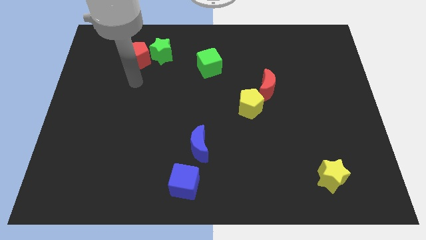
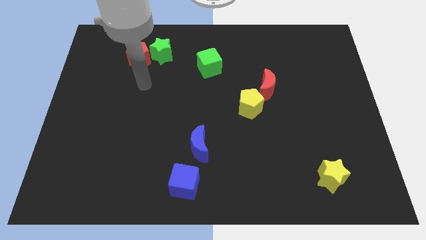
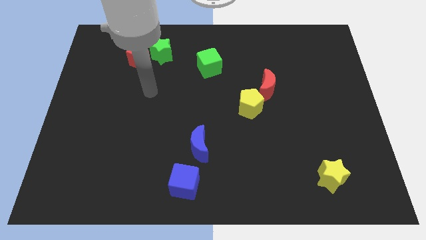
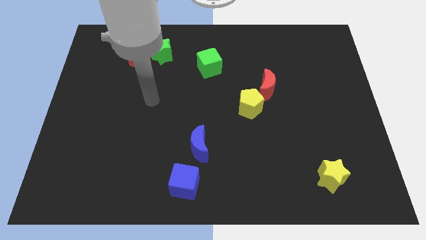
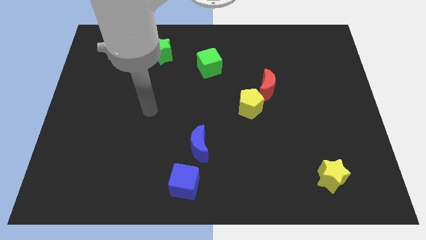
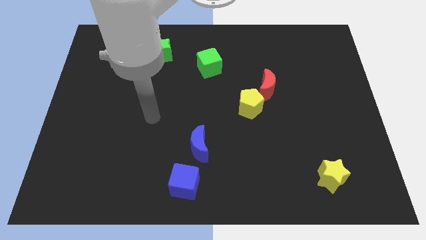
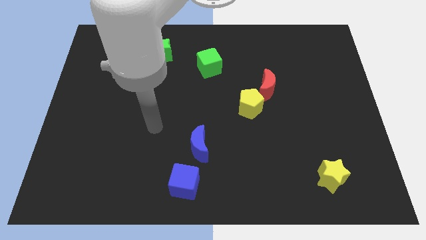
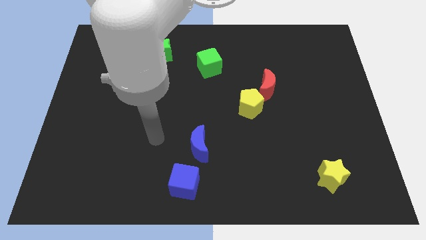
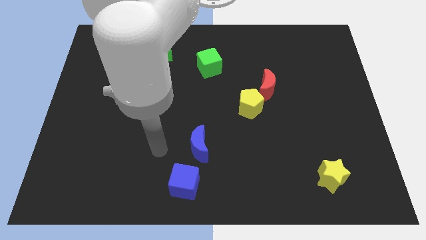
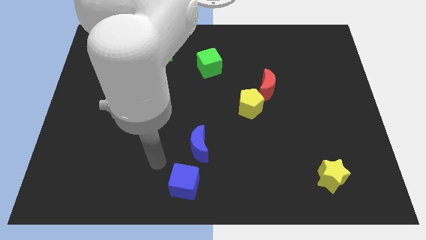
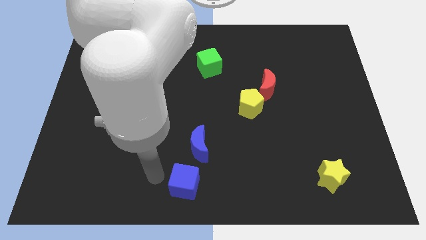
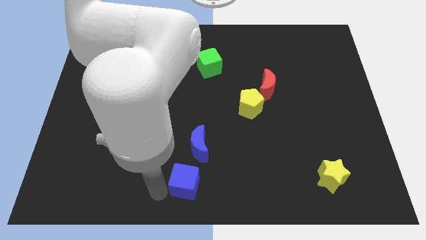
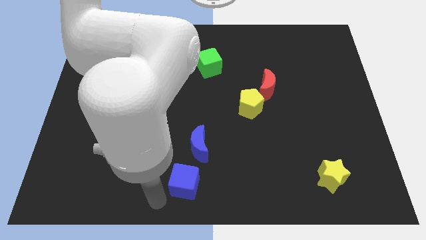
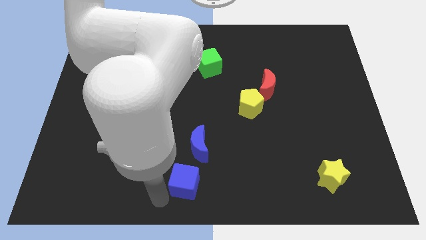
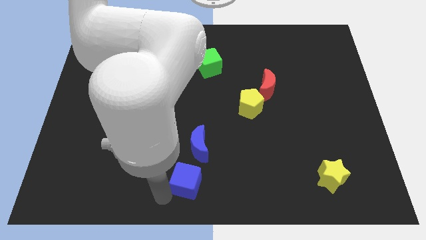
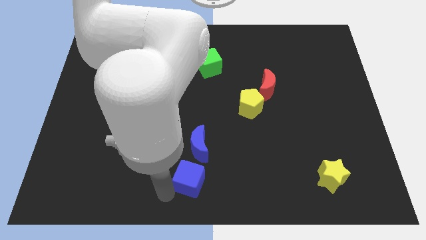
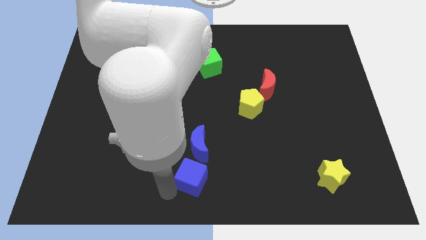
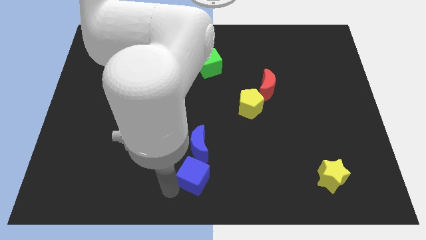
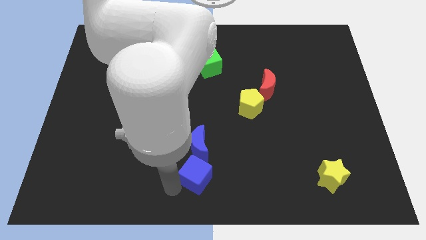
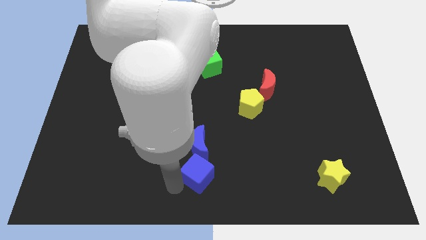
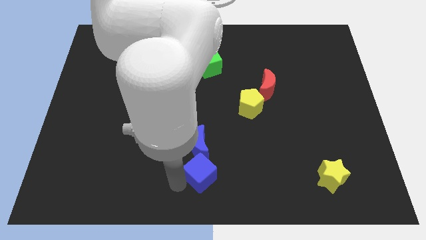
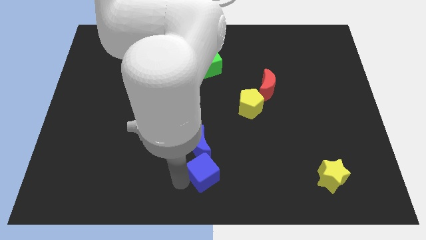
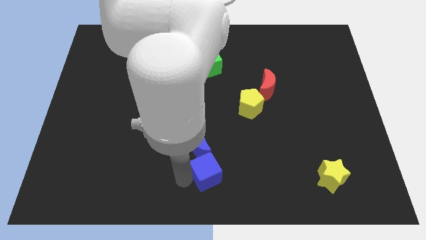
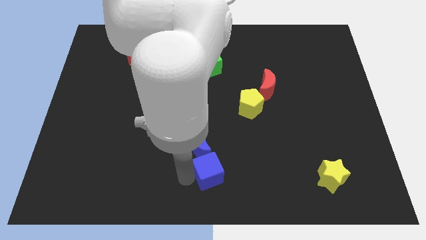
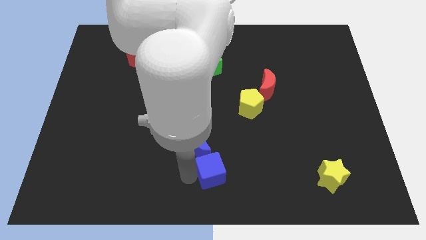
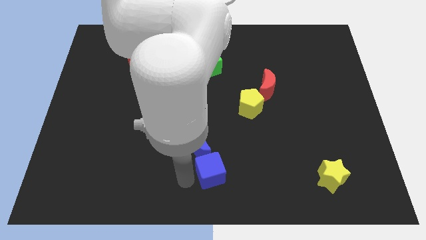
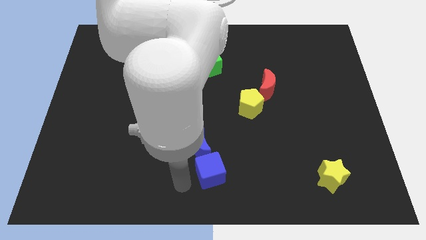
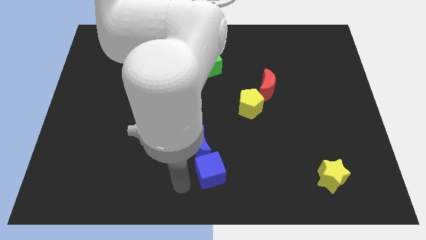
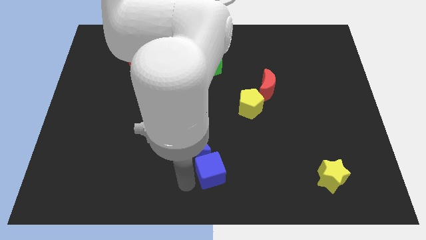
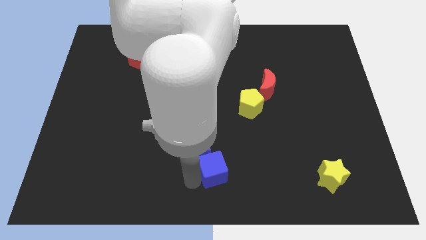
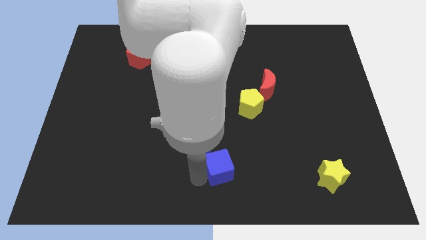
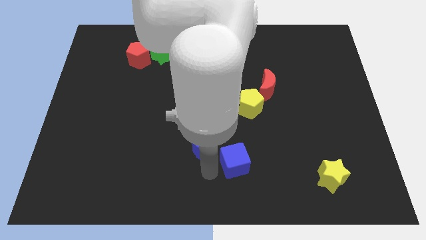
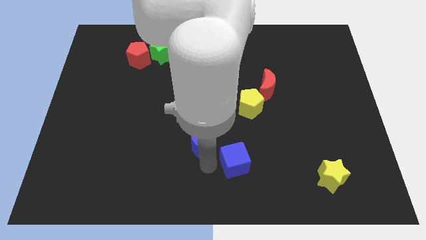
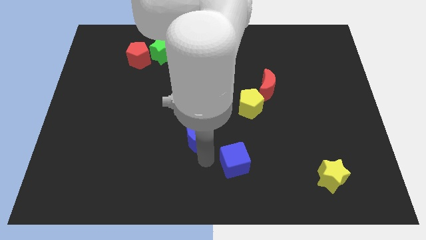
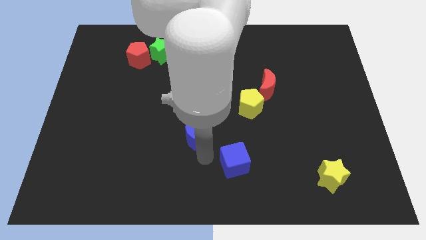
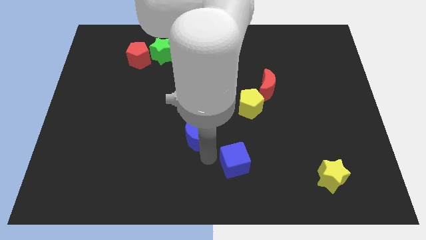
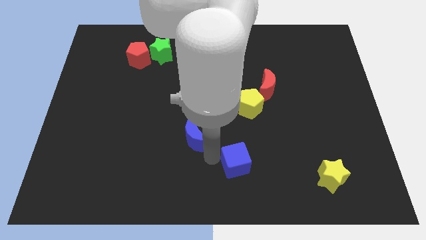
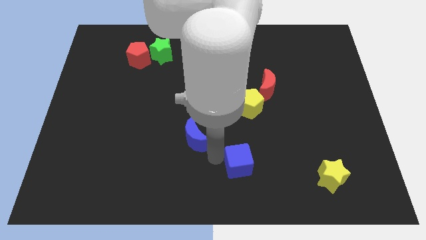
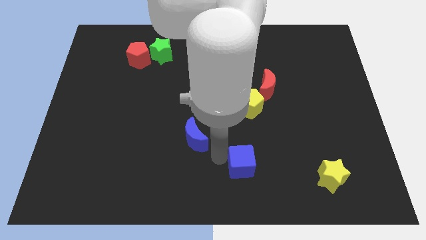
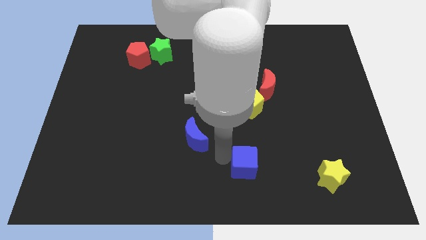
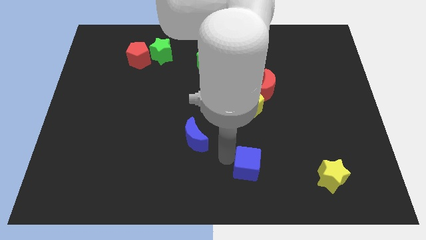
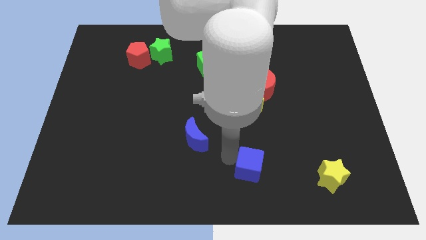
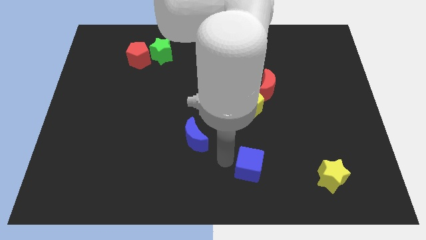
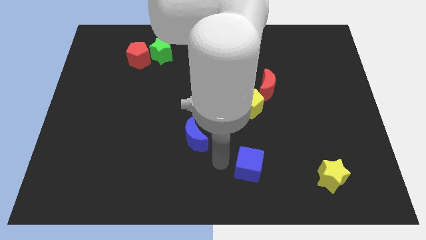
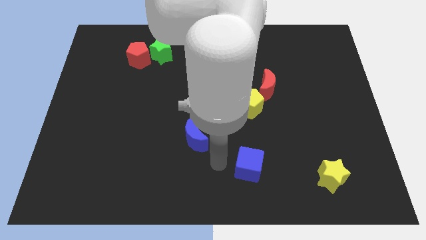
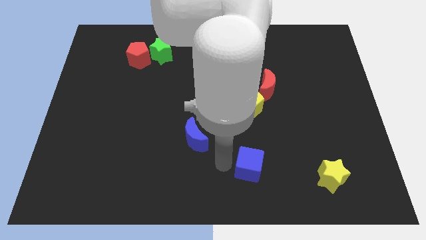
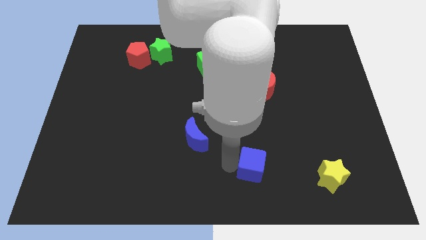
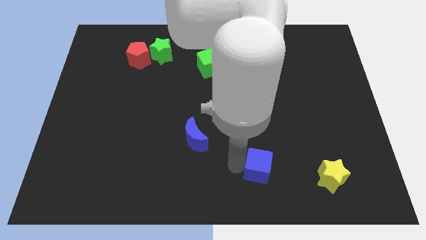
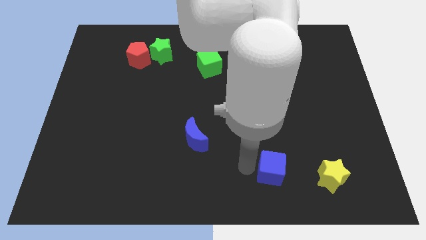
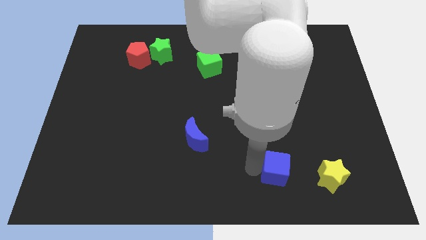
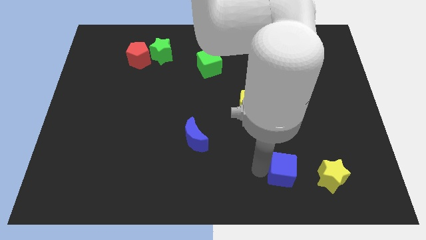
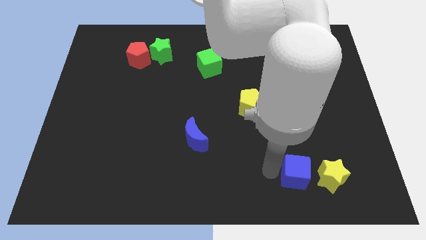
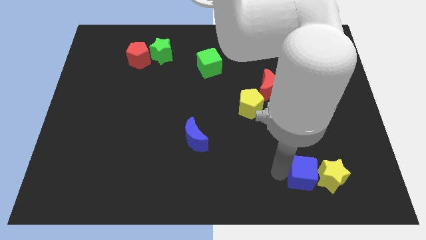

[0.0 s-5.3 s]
put the blue cube to the yellow star

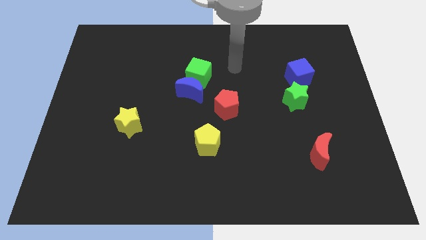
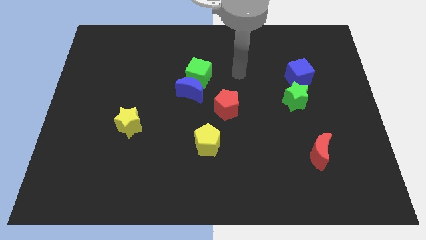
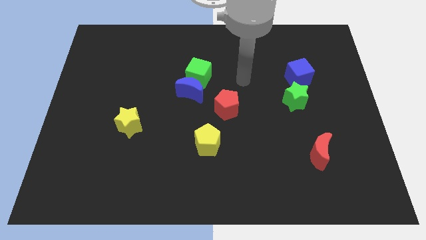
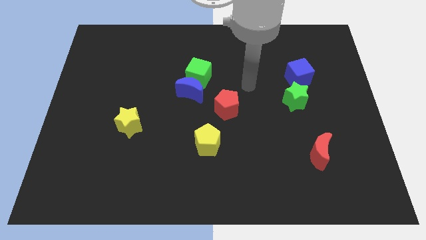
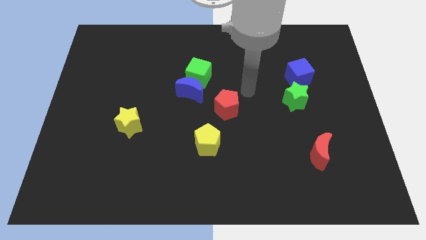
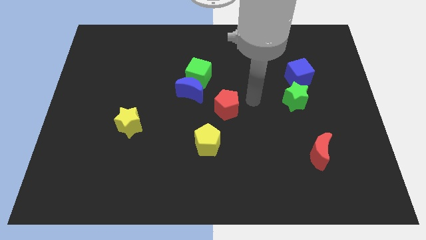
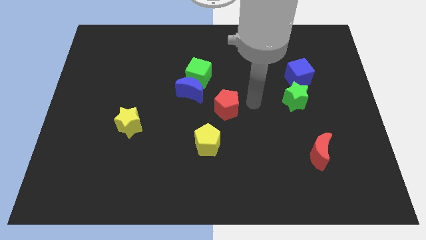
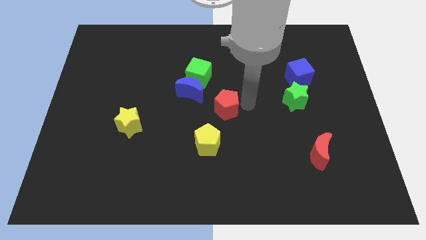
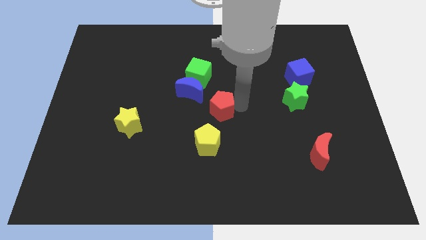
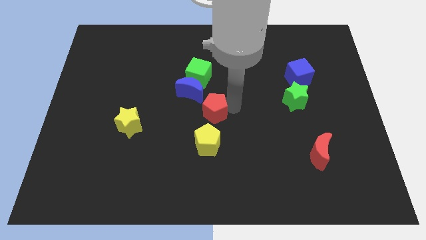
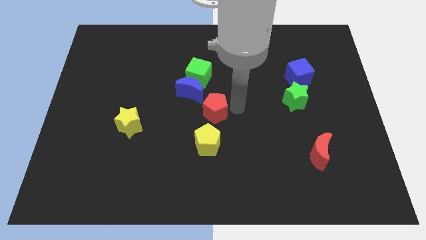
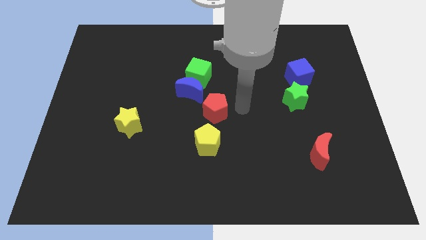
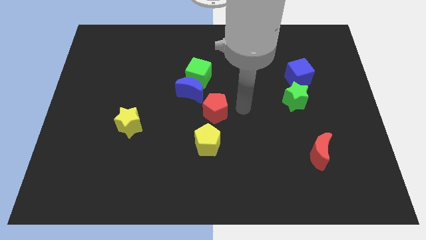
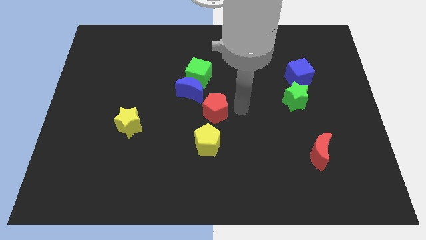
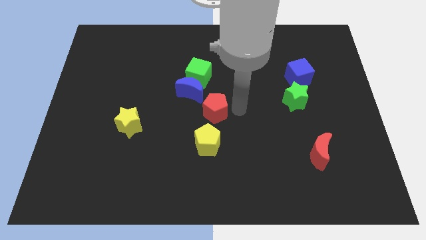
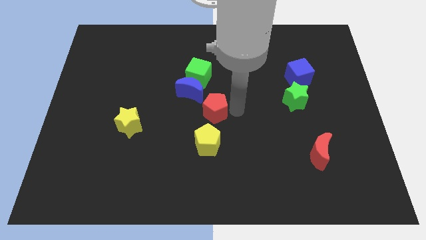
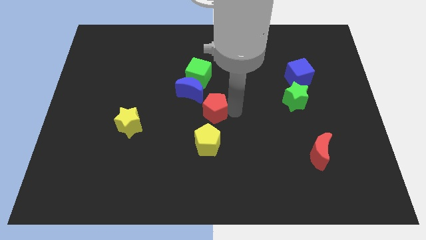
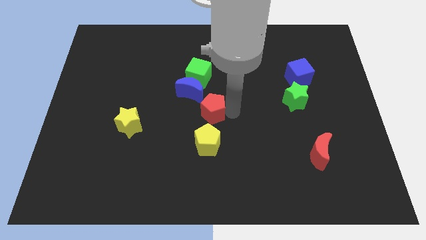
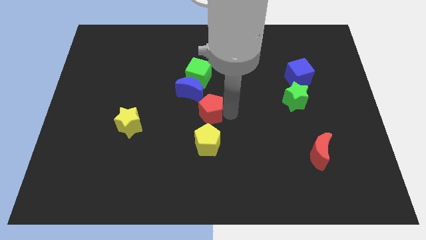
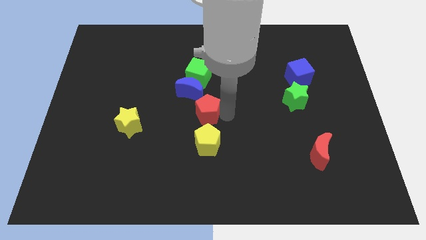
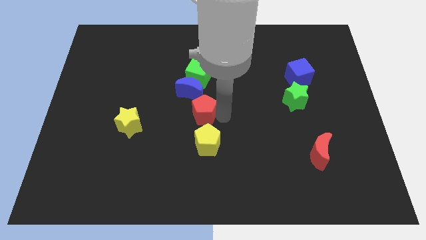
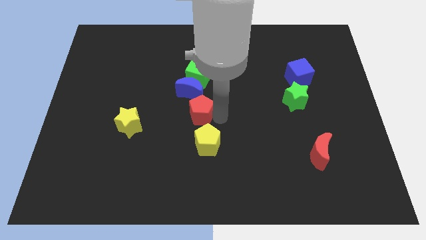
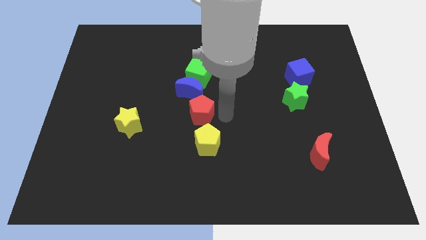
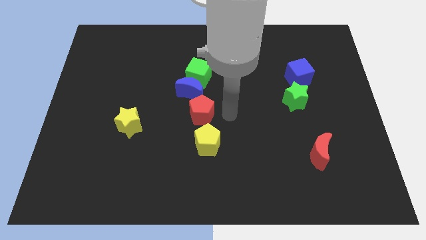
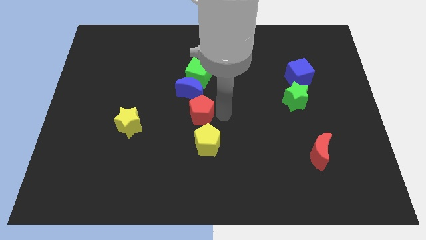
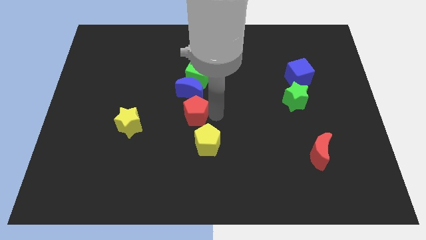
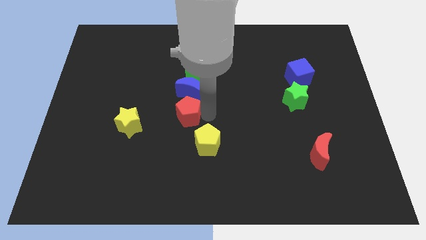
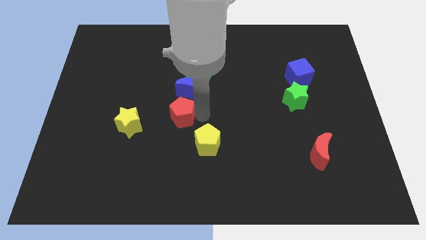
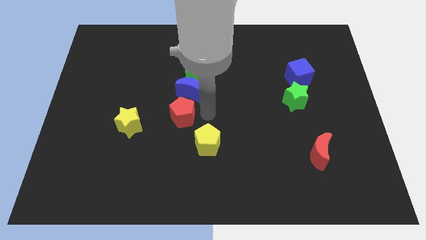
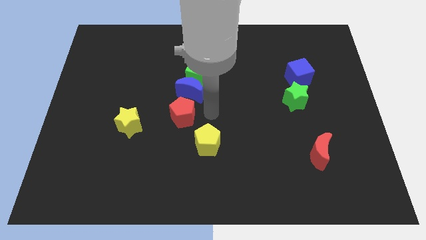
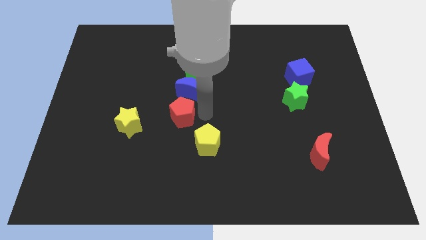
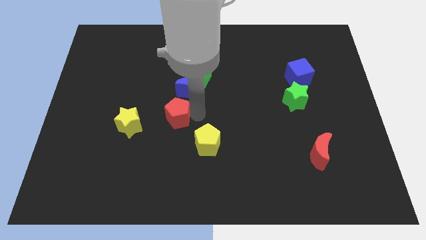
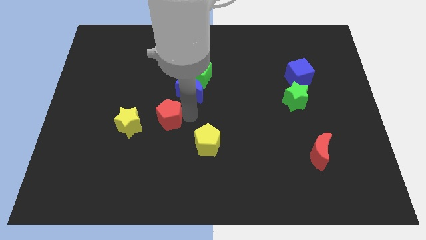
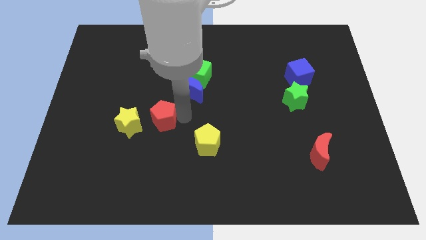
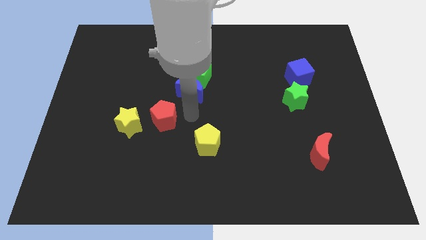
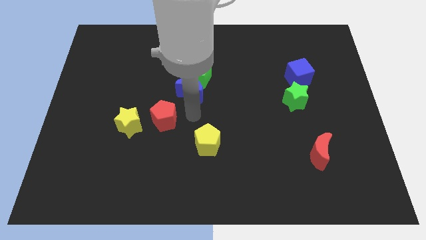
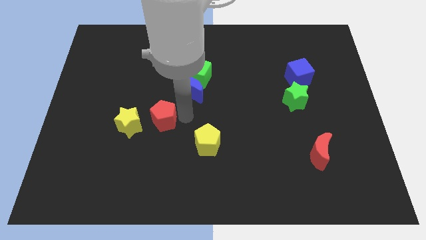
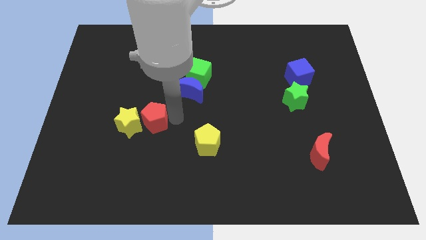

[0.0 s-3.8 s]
put the red pentagon close to the yellow star
